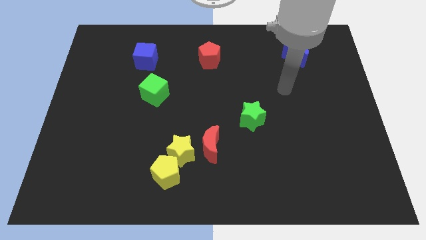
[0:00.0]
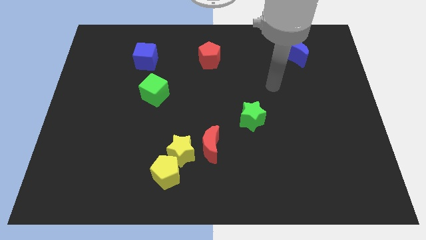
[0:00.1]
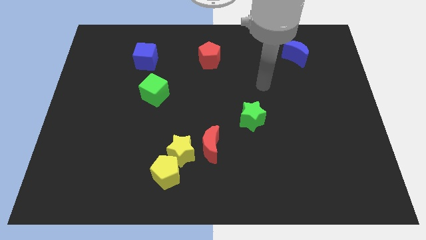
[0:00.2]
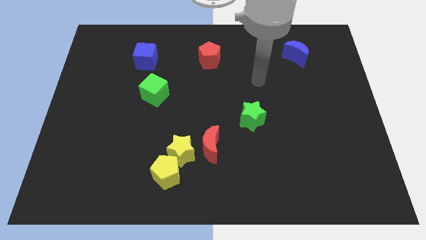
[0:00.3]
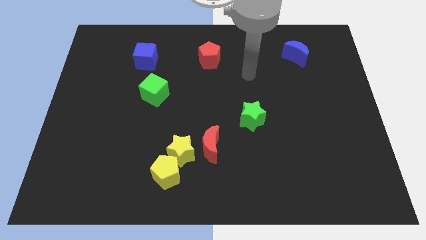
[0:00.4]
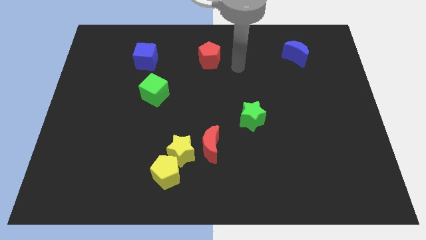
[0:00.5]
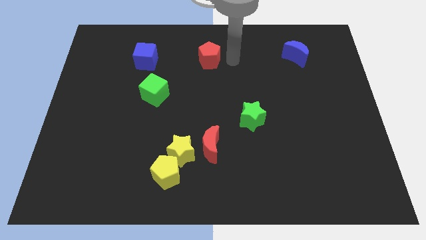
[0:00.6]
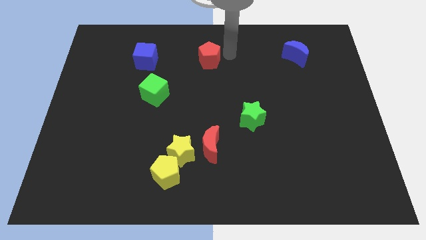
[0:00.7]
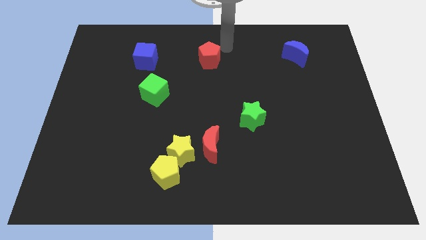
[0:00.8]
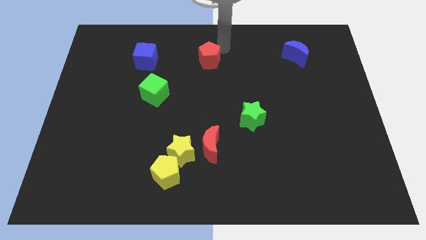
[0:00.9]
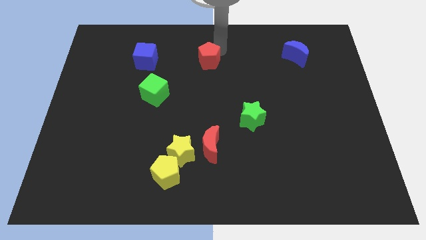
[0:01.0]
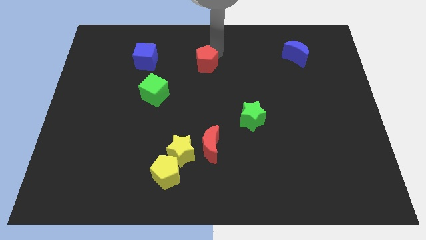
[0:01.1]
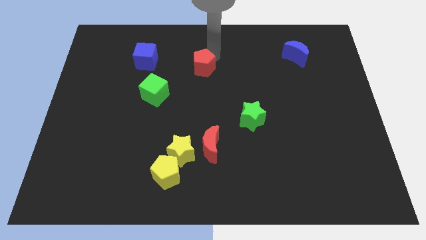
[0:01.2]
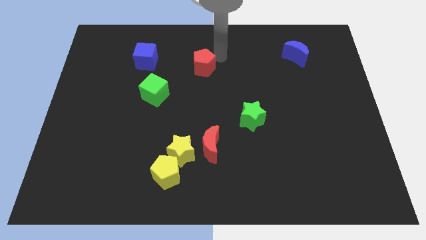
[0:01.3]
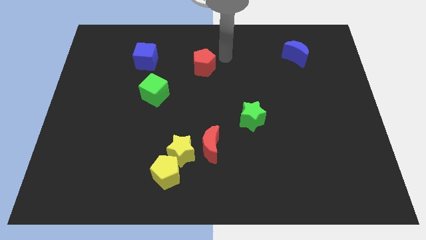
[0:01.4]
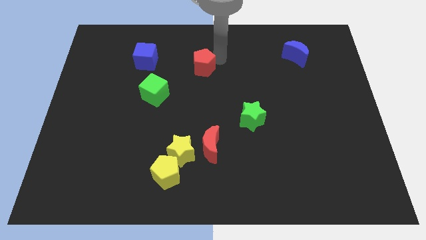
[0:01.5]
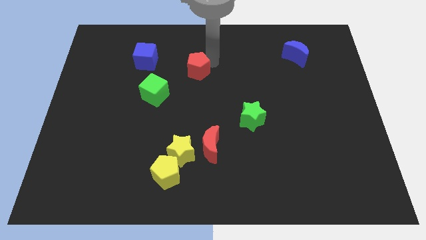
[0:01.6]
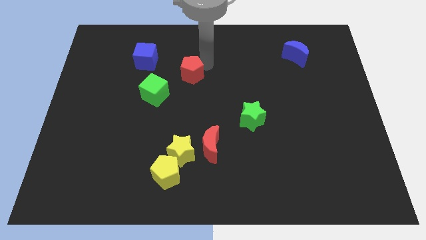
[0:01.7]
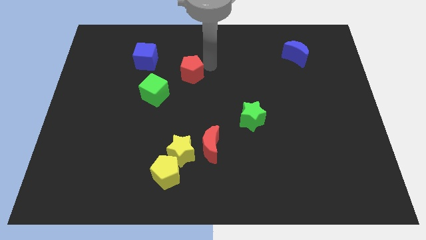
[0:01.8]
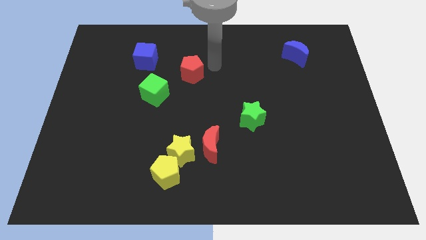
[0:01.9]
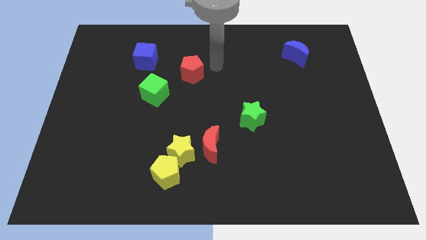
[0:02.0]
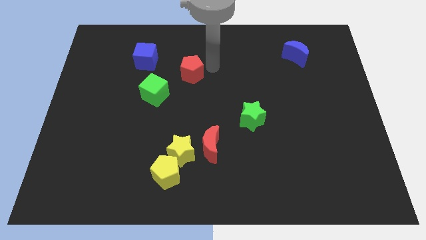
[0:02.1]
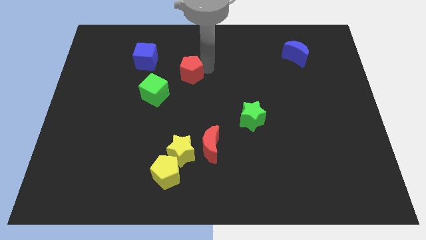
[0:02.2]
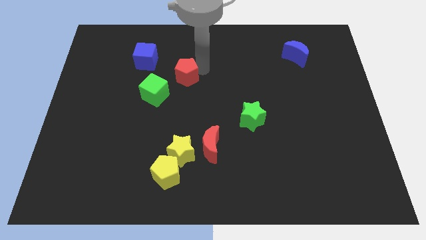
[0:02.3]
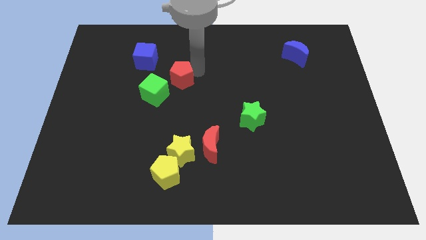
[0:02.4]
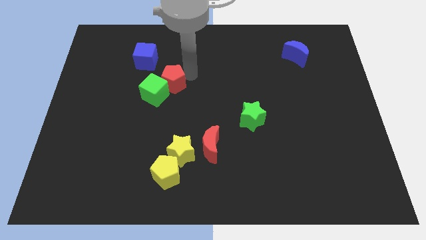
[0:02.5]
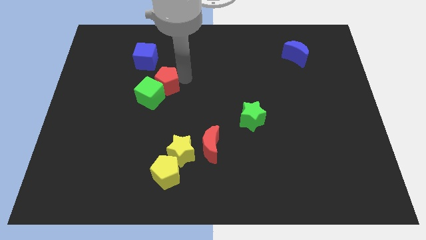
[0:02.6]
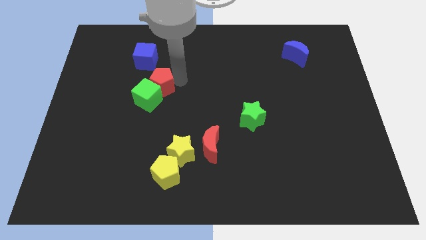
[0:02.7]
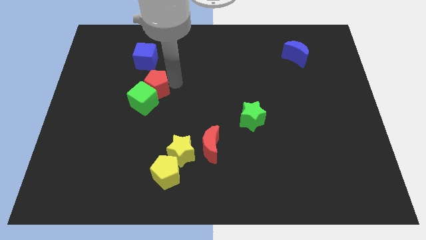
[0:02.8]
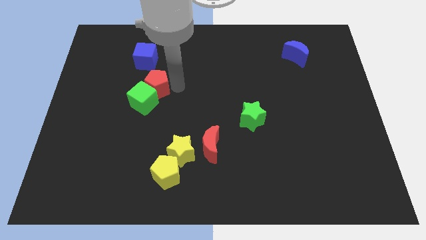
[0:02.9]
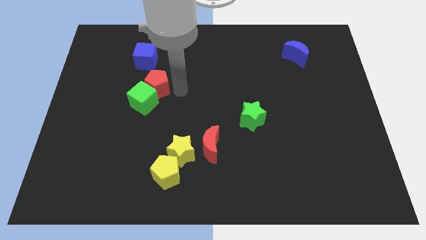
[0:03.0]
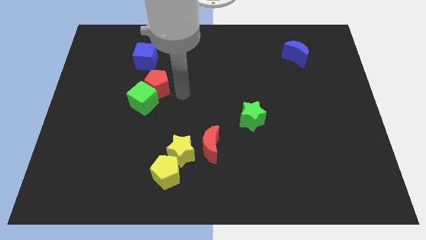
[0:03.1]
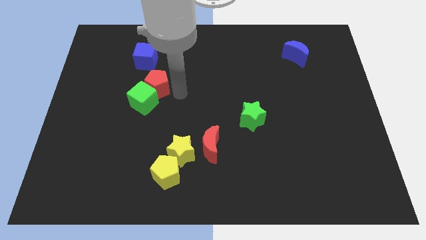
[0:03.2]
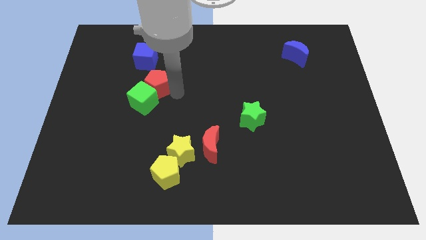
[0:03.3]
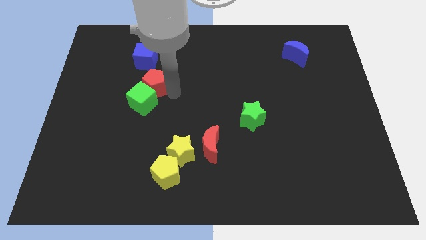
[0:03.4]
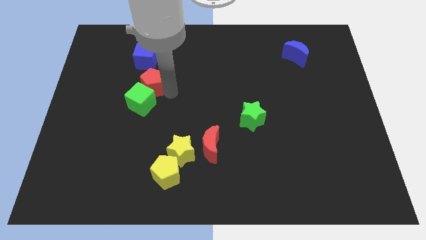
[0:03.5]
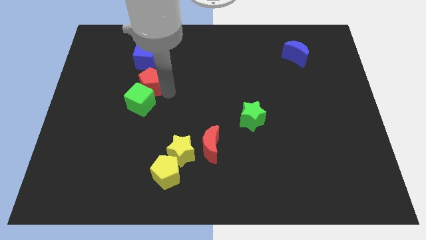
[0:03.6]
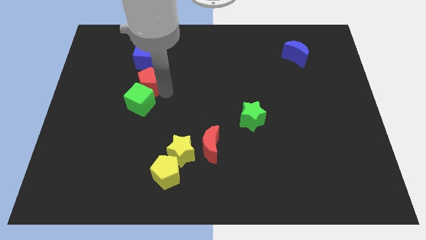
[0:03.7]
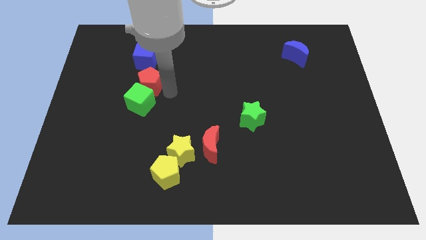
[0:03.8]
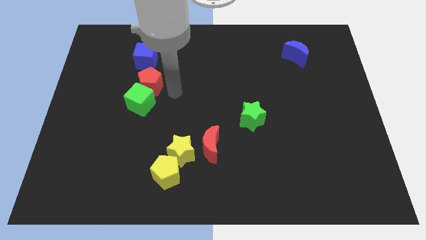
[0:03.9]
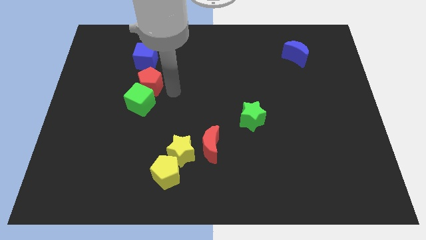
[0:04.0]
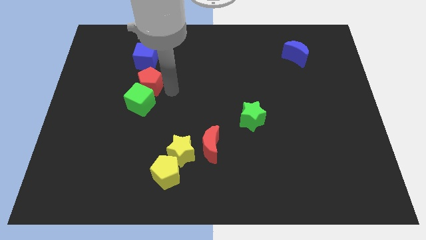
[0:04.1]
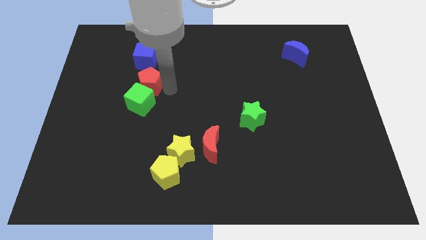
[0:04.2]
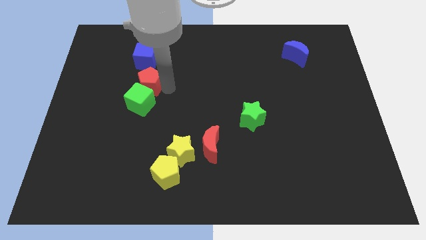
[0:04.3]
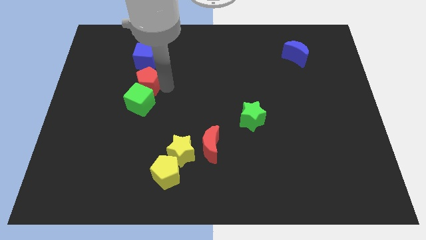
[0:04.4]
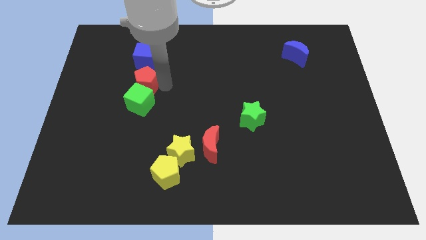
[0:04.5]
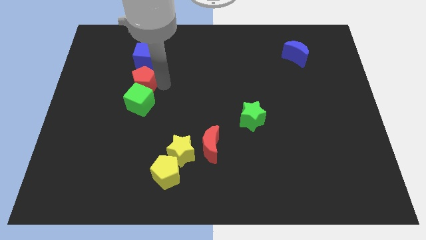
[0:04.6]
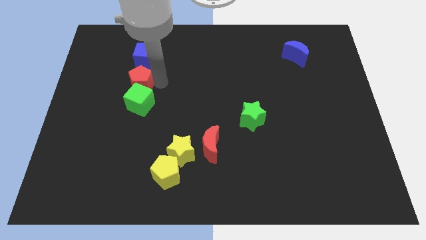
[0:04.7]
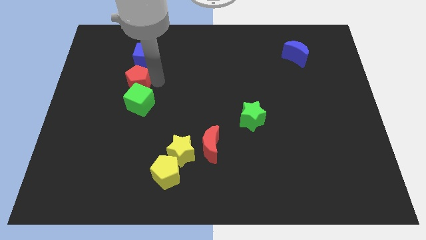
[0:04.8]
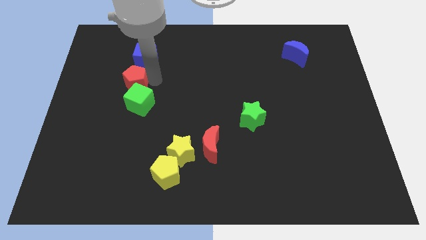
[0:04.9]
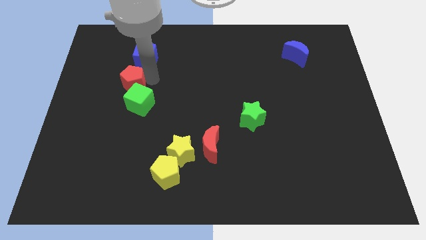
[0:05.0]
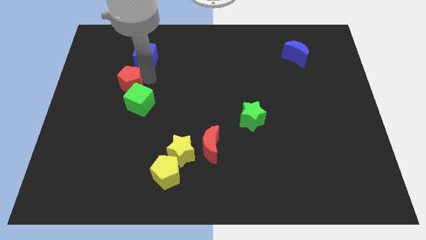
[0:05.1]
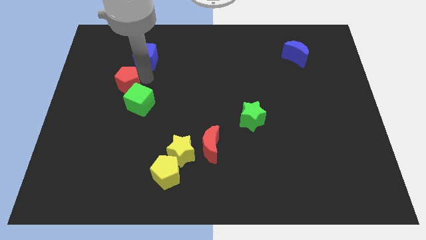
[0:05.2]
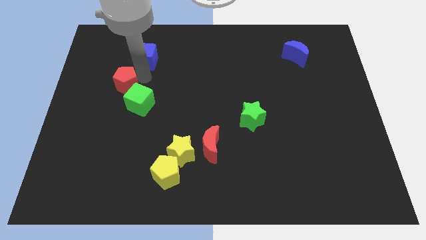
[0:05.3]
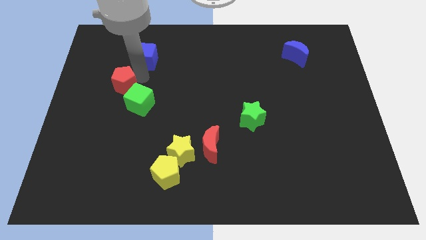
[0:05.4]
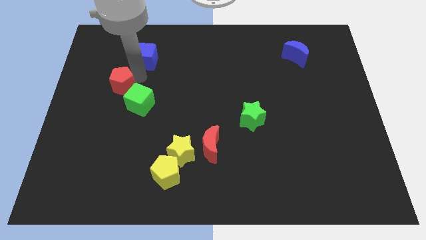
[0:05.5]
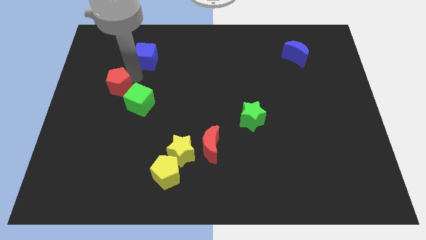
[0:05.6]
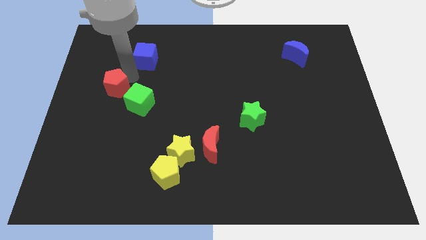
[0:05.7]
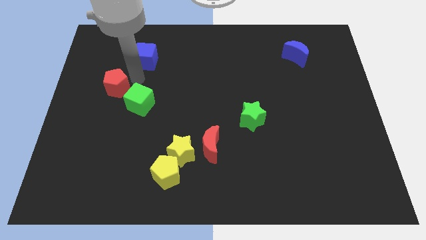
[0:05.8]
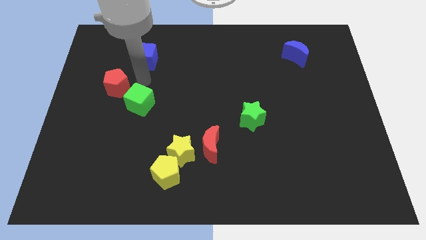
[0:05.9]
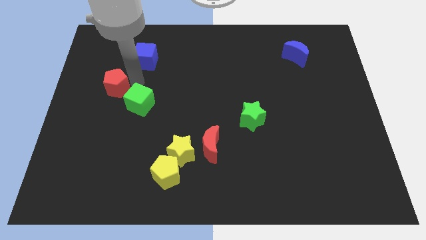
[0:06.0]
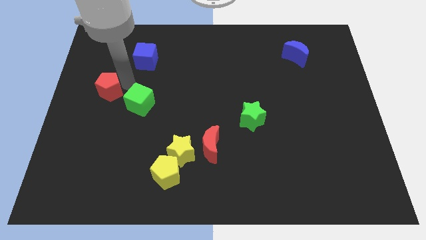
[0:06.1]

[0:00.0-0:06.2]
push the red pentagon to the left side of the board

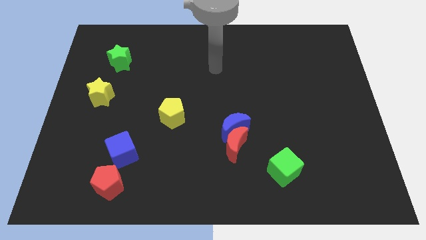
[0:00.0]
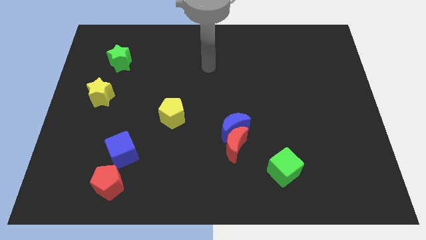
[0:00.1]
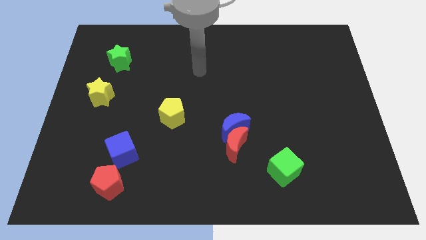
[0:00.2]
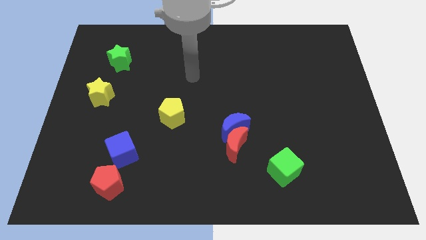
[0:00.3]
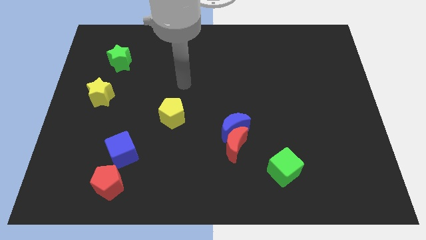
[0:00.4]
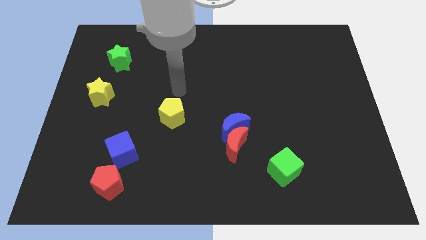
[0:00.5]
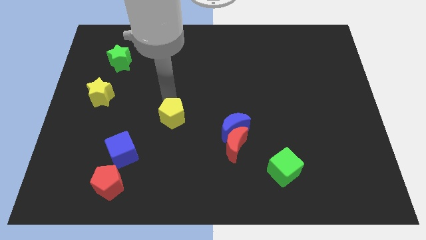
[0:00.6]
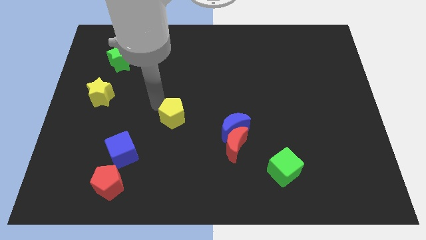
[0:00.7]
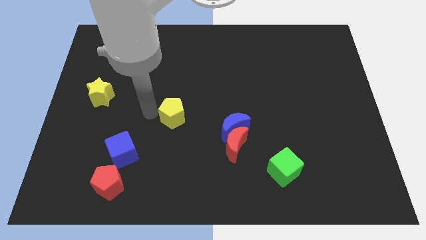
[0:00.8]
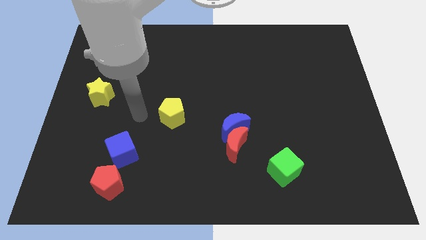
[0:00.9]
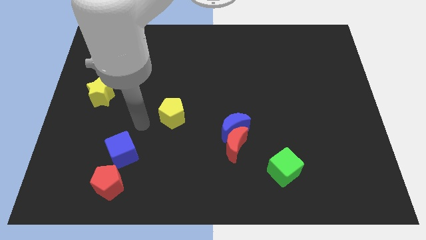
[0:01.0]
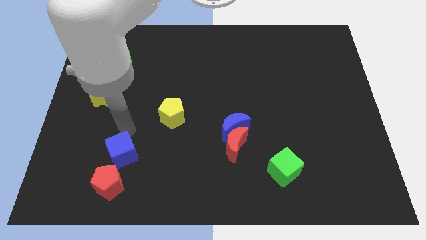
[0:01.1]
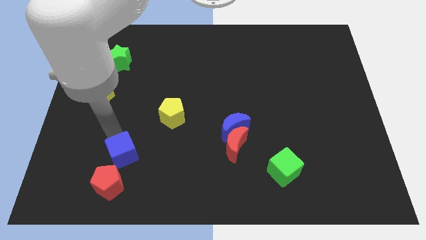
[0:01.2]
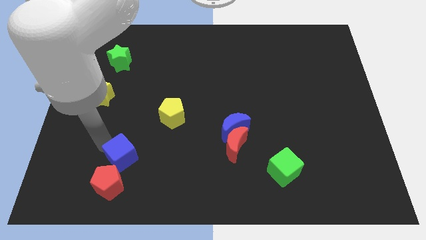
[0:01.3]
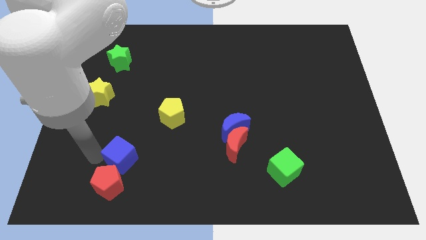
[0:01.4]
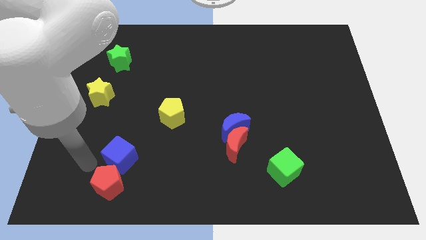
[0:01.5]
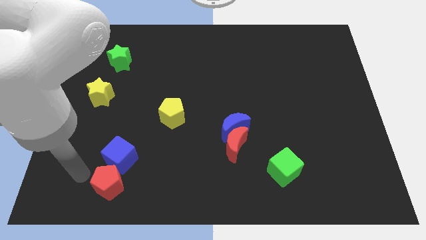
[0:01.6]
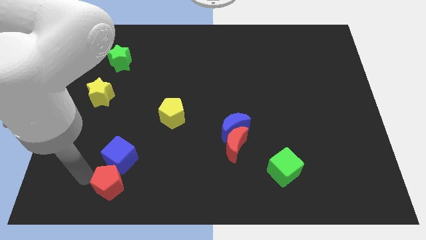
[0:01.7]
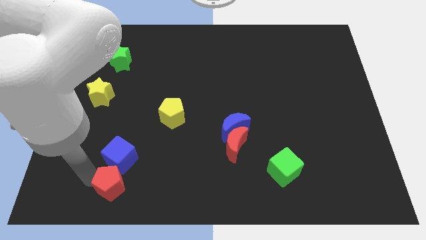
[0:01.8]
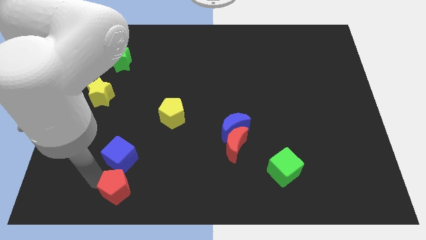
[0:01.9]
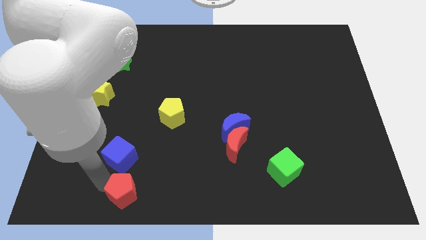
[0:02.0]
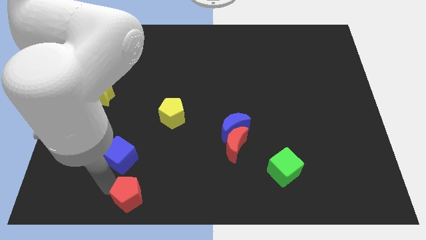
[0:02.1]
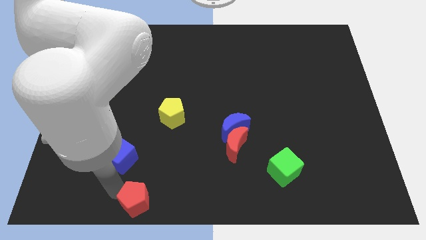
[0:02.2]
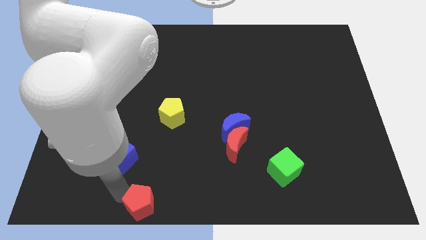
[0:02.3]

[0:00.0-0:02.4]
push the red pentagon to the bottom side
